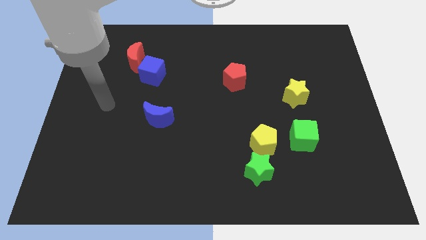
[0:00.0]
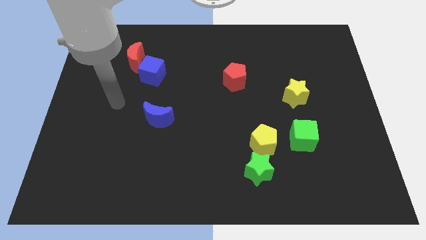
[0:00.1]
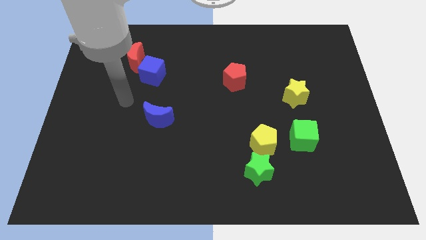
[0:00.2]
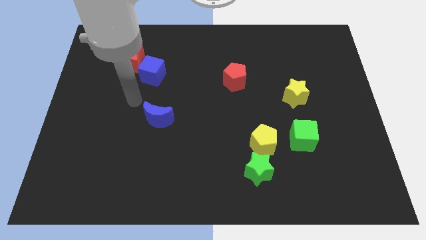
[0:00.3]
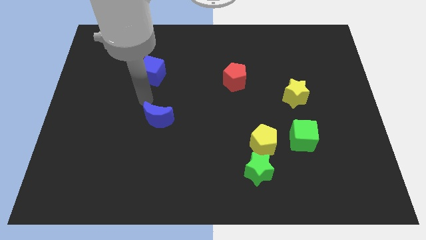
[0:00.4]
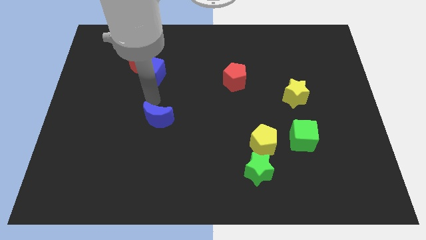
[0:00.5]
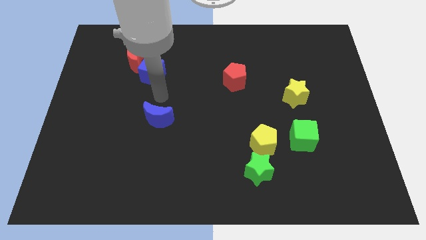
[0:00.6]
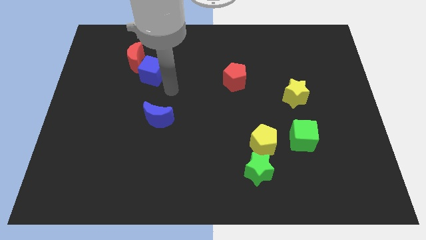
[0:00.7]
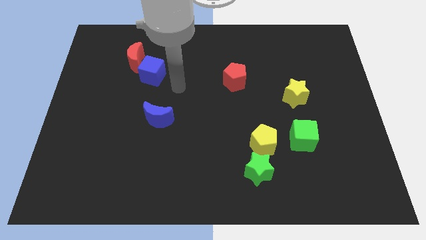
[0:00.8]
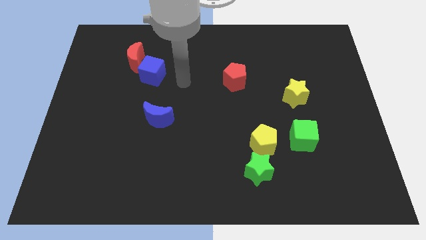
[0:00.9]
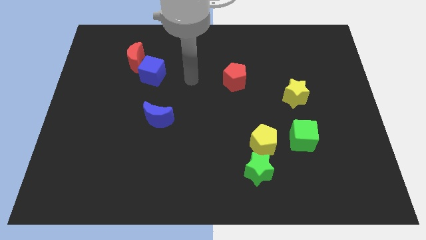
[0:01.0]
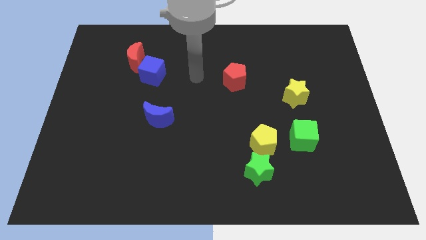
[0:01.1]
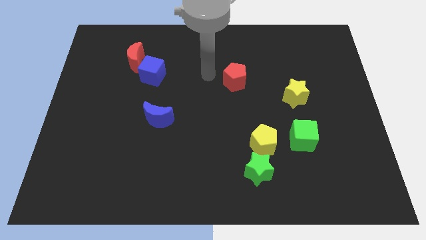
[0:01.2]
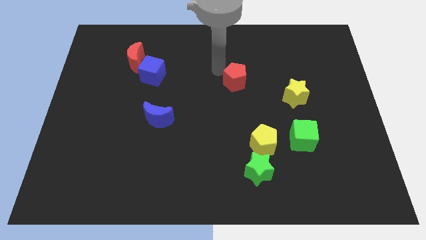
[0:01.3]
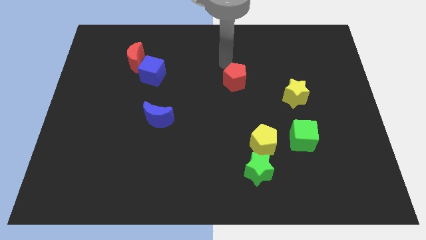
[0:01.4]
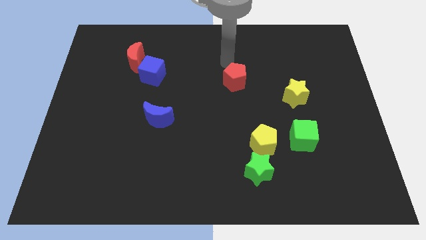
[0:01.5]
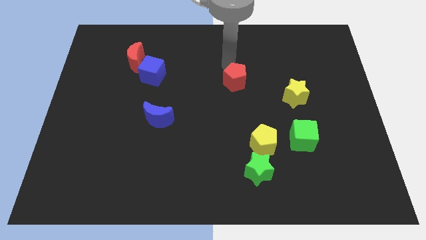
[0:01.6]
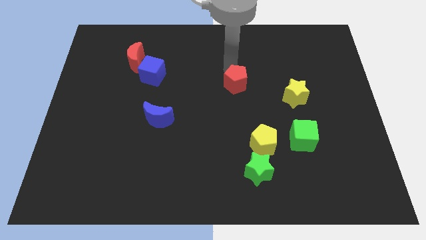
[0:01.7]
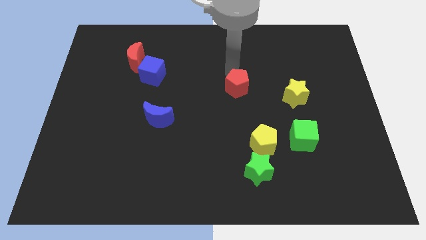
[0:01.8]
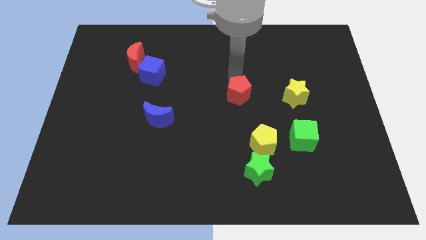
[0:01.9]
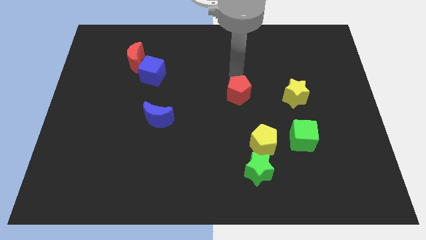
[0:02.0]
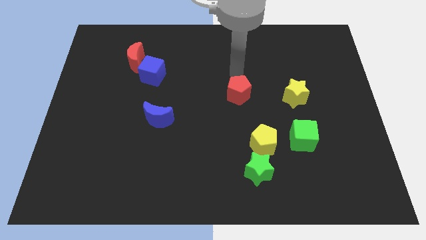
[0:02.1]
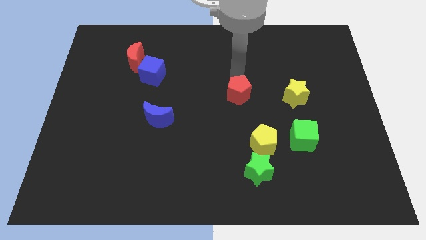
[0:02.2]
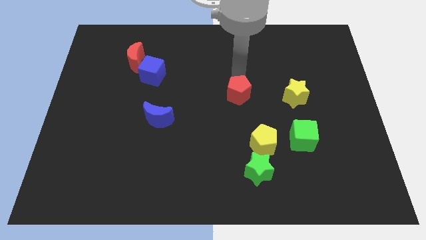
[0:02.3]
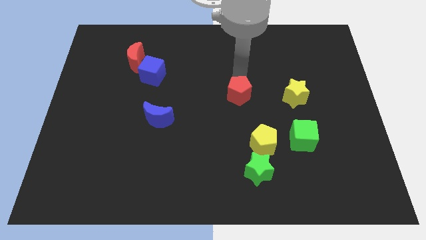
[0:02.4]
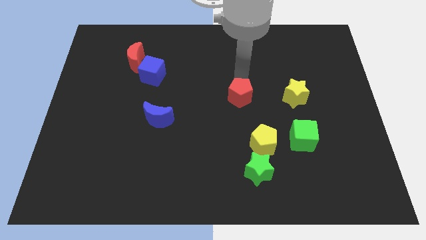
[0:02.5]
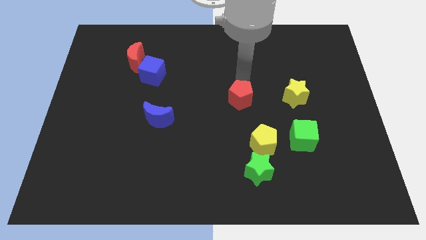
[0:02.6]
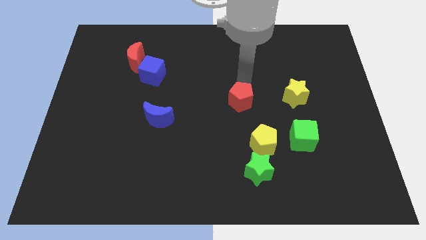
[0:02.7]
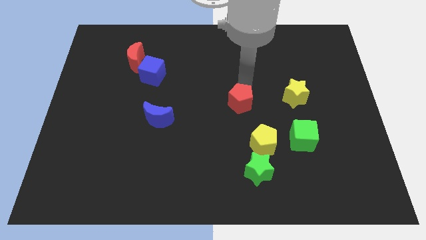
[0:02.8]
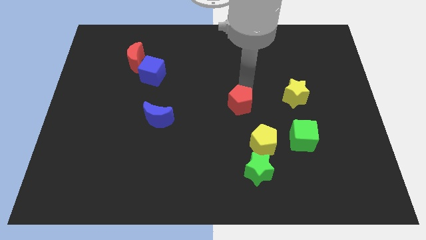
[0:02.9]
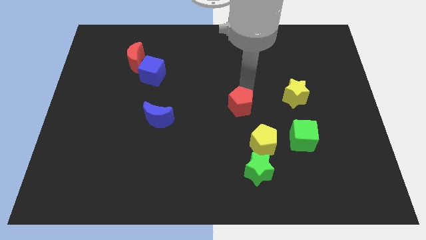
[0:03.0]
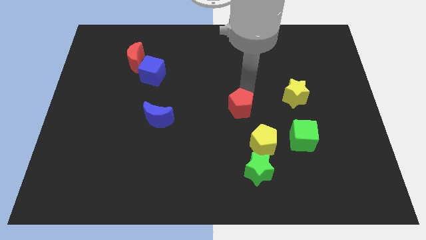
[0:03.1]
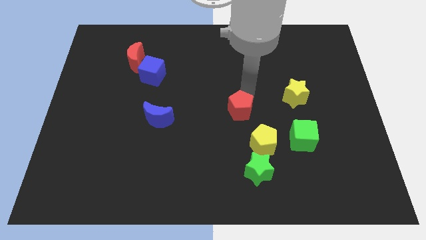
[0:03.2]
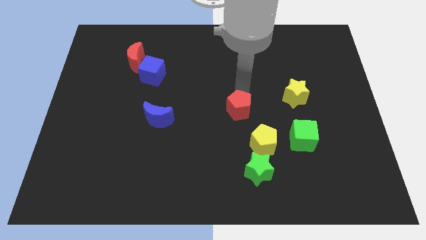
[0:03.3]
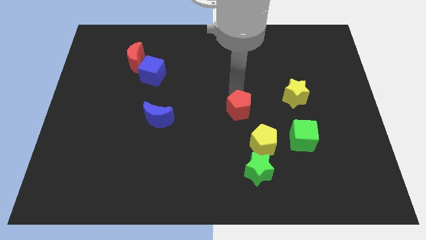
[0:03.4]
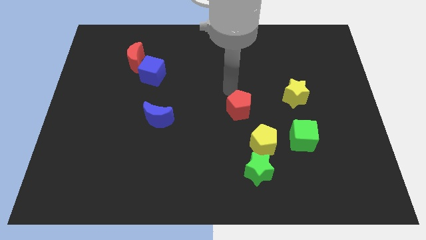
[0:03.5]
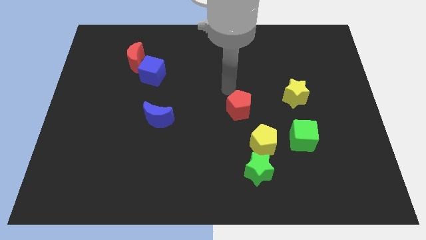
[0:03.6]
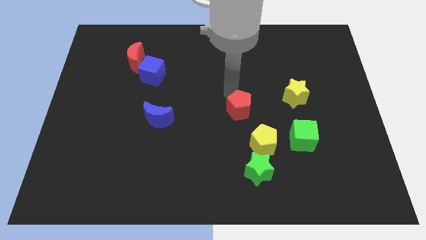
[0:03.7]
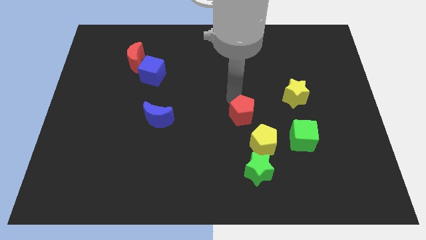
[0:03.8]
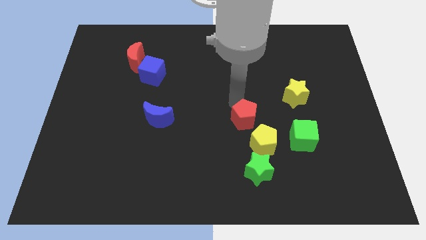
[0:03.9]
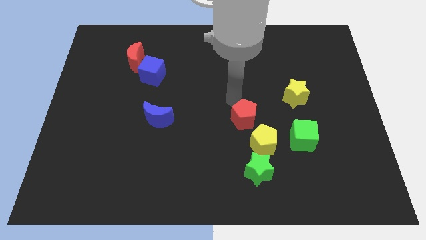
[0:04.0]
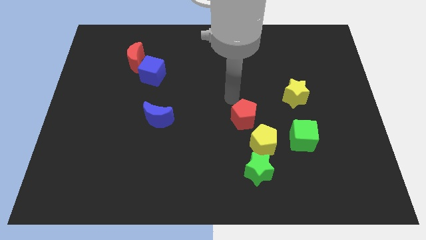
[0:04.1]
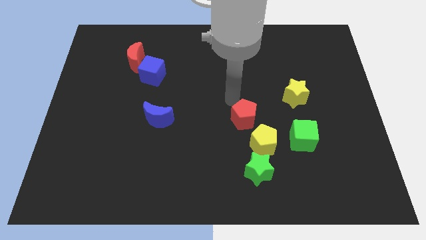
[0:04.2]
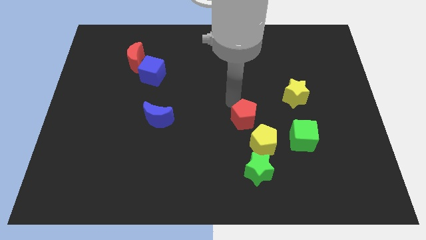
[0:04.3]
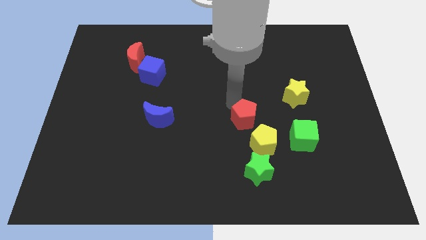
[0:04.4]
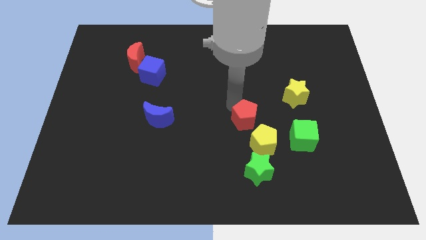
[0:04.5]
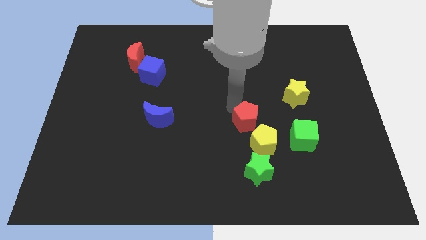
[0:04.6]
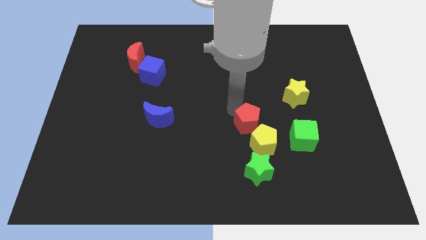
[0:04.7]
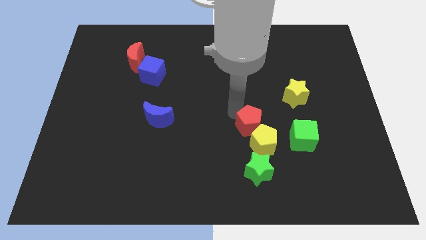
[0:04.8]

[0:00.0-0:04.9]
push the red pentagon towards the yellow pentagon
